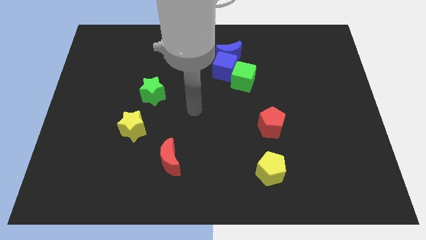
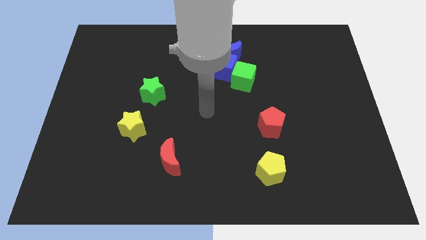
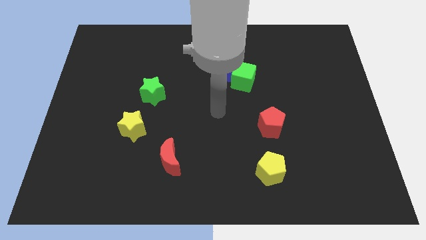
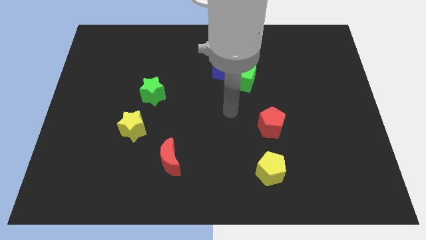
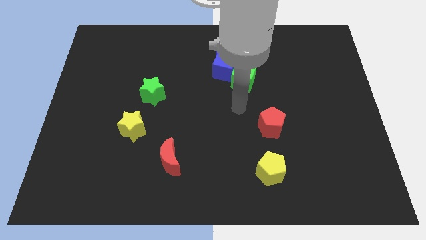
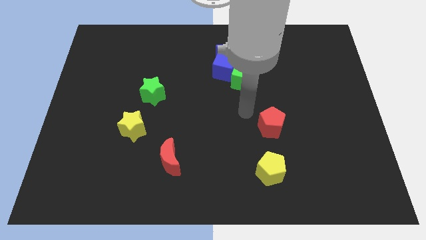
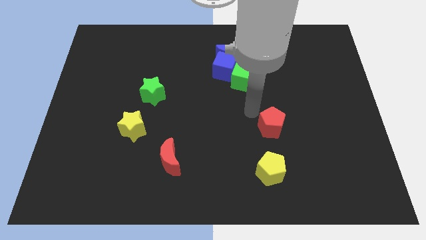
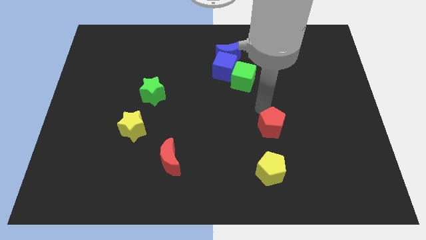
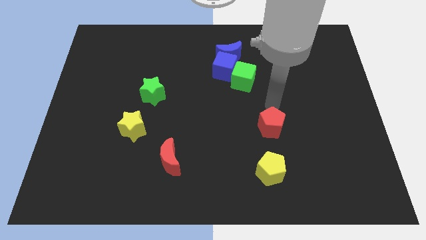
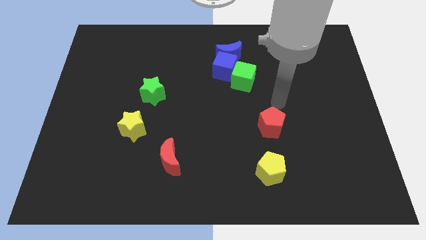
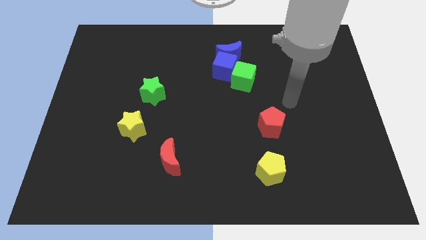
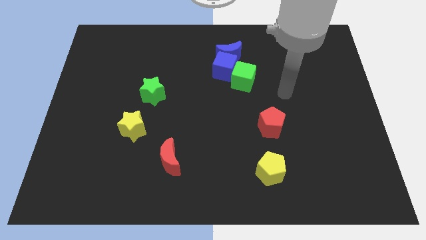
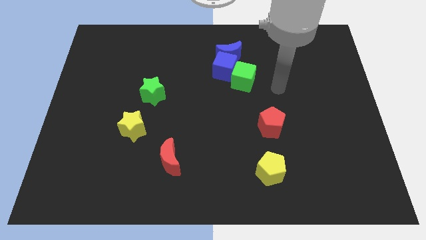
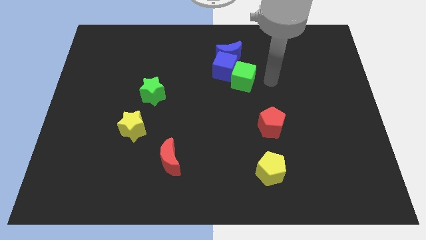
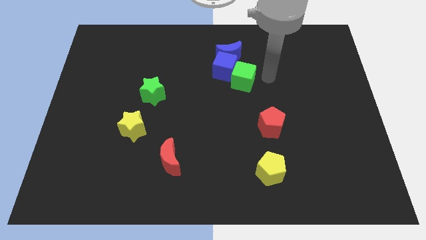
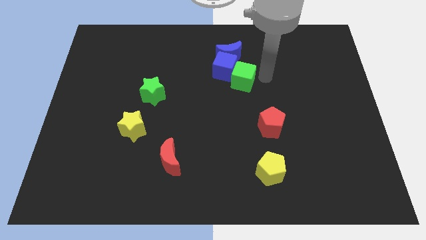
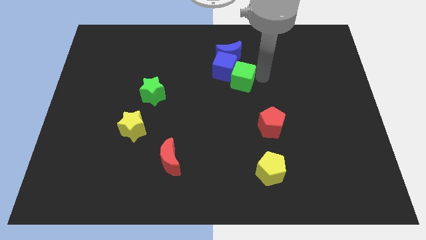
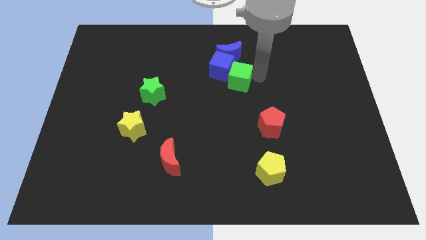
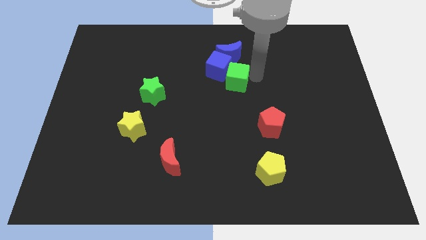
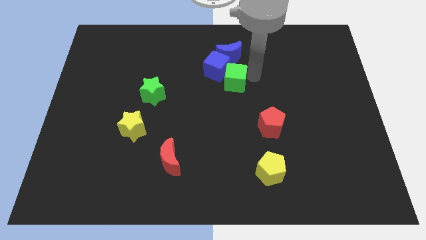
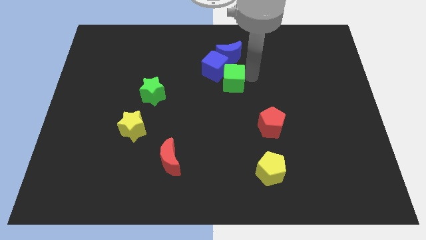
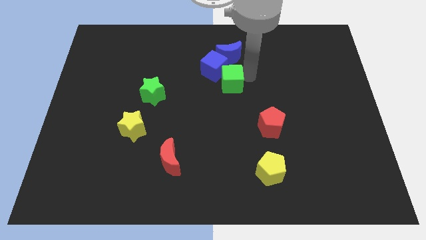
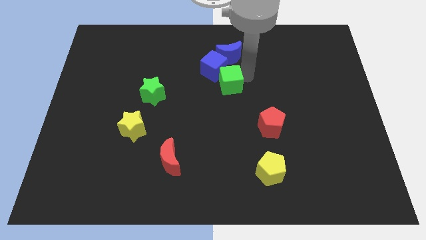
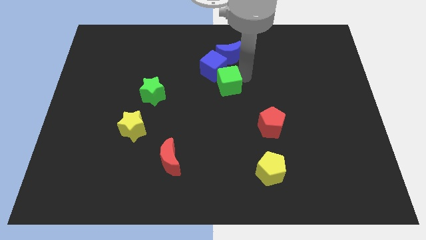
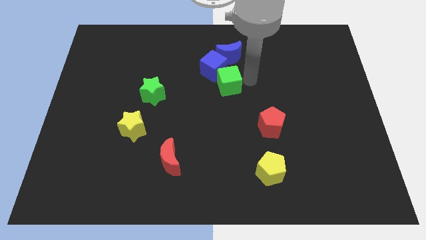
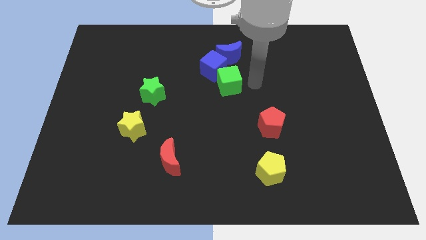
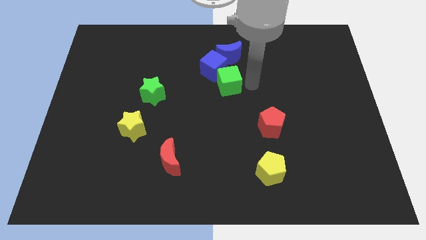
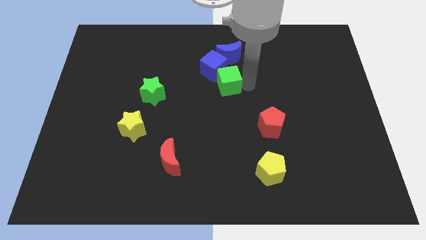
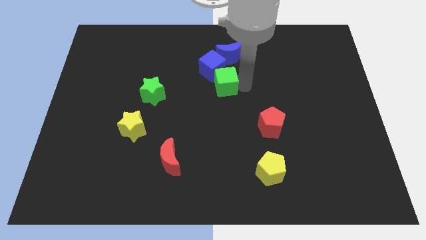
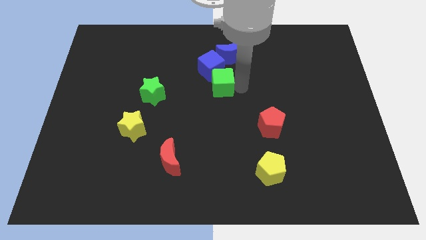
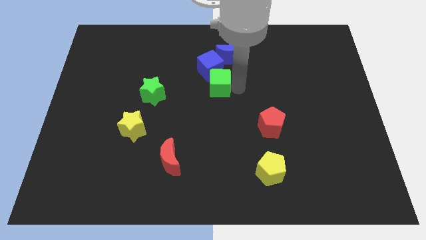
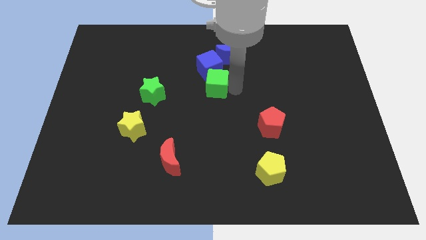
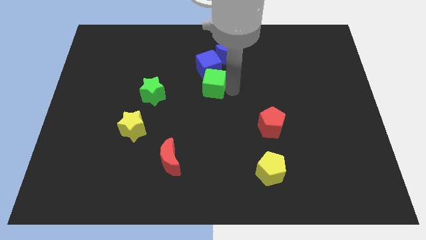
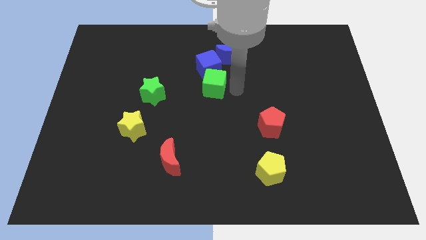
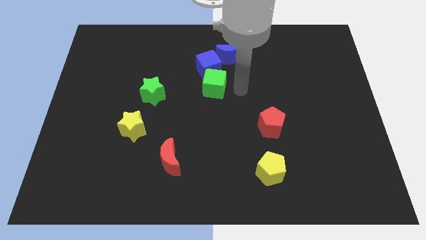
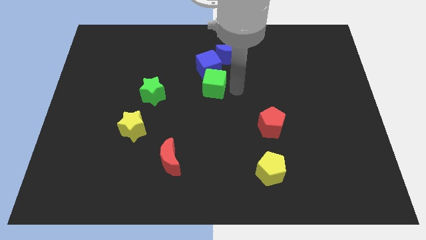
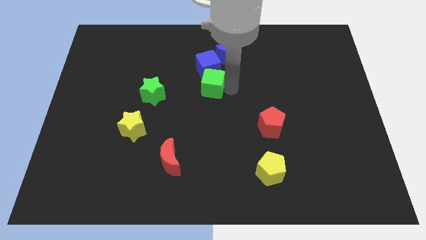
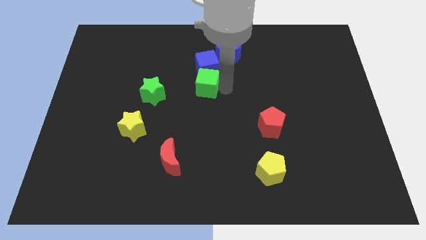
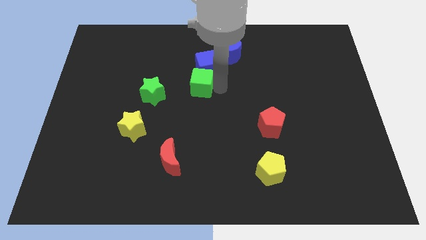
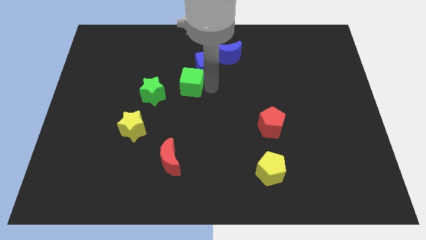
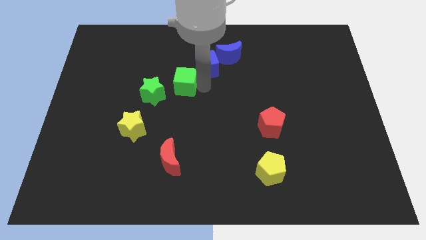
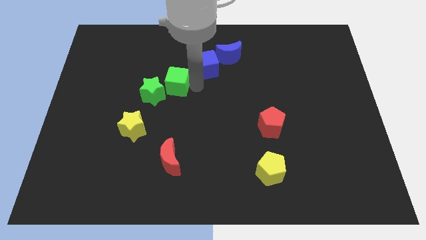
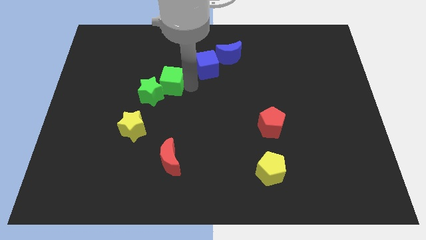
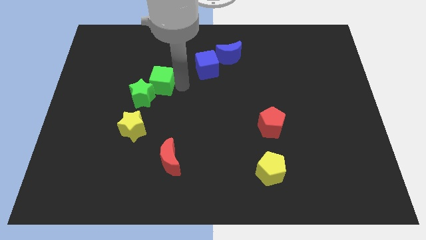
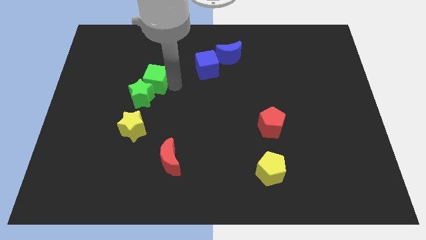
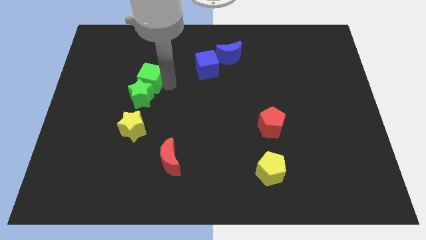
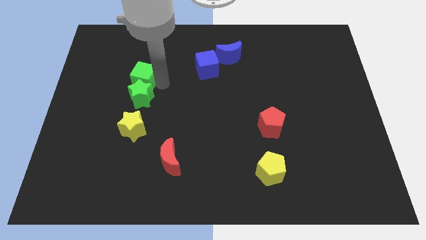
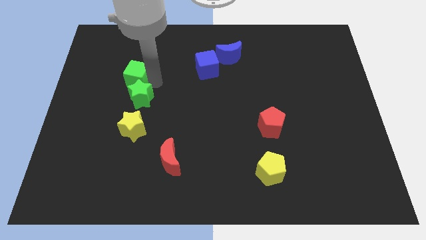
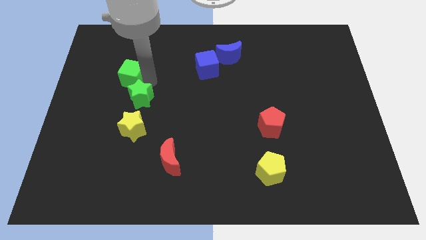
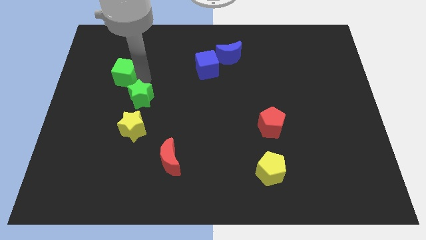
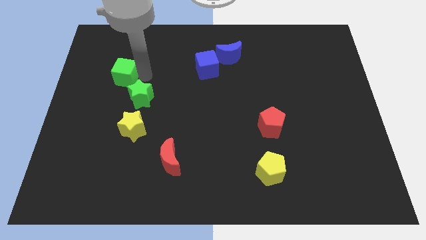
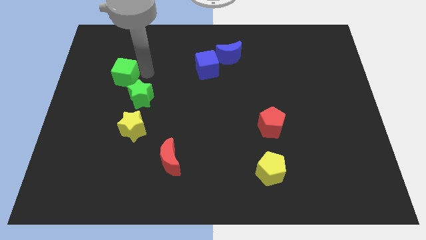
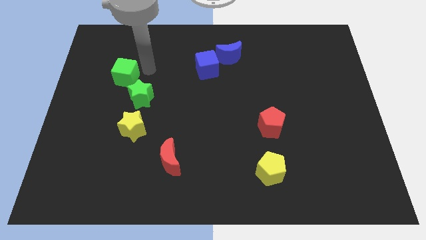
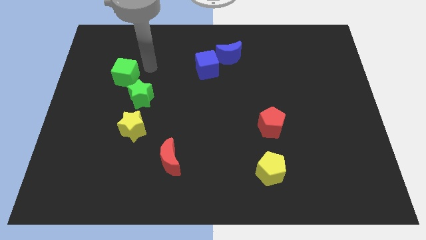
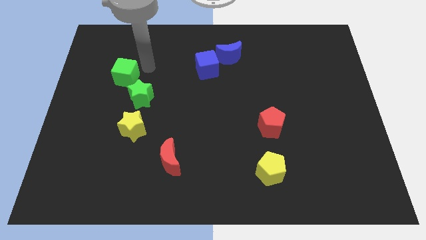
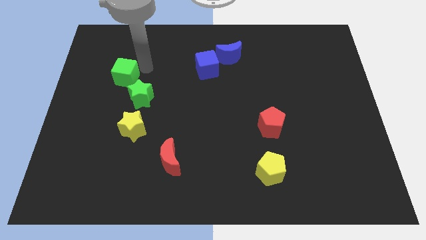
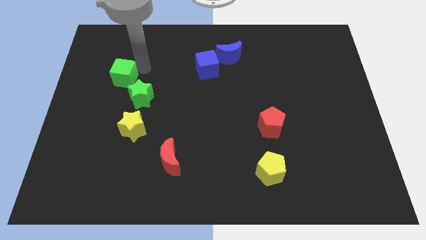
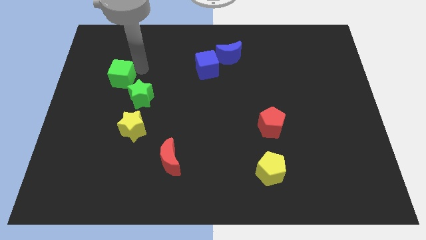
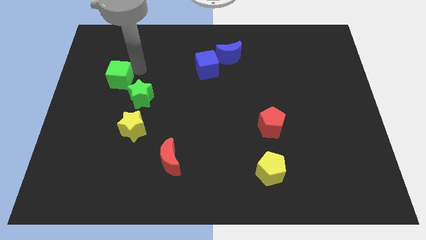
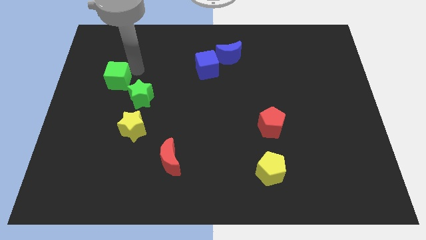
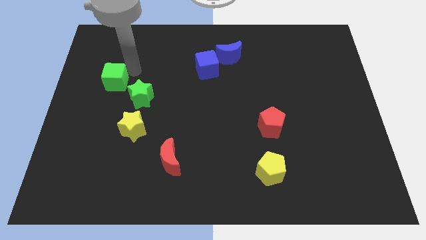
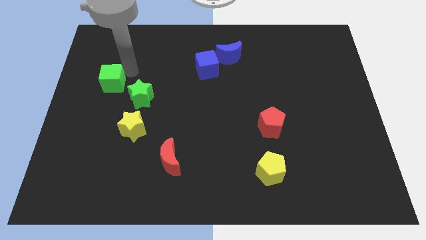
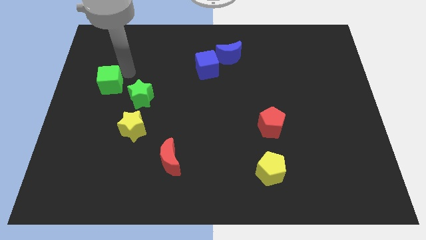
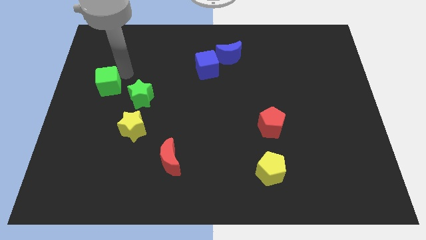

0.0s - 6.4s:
put the green cube to the center left

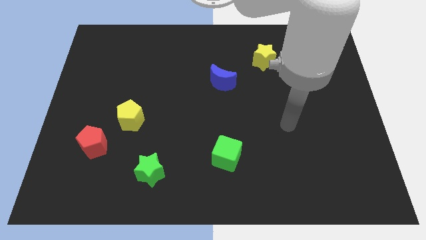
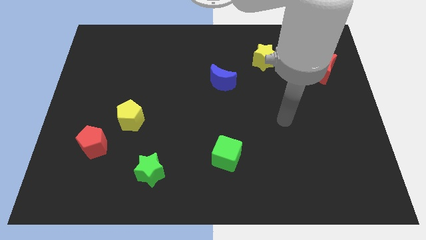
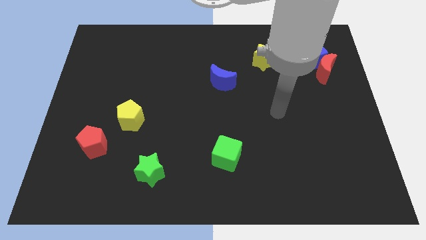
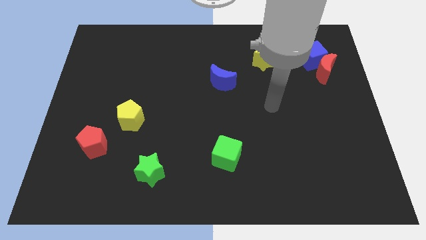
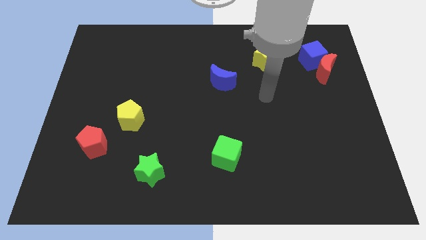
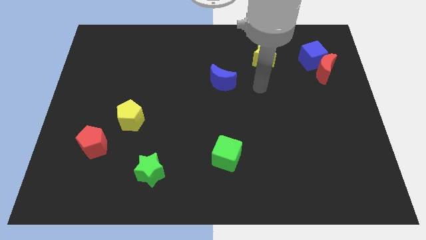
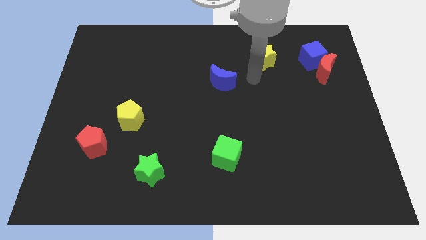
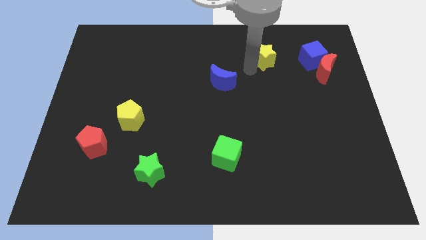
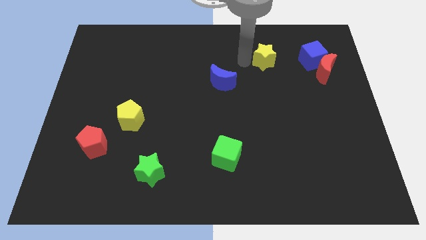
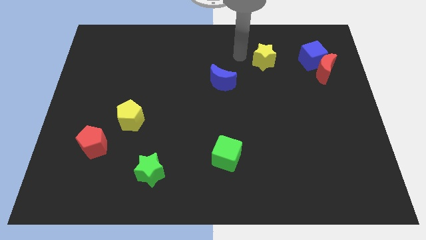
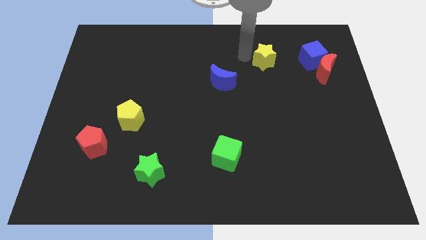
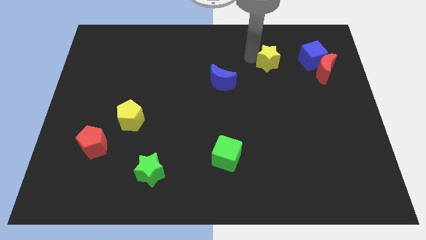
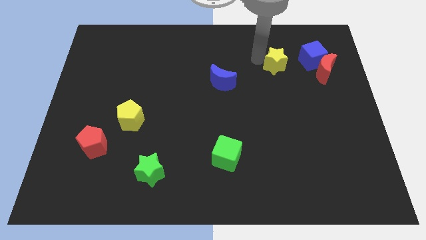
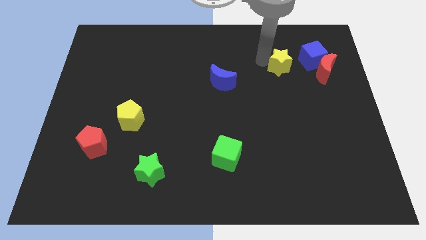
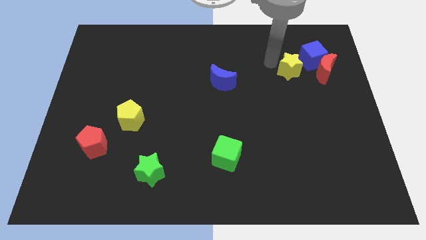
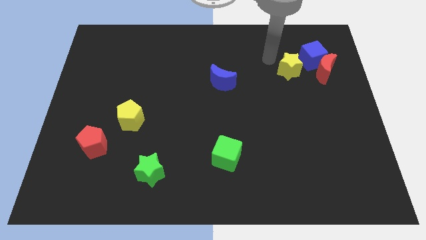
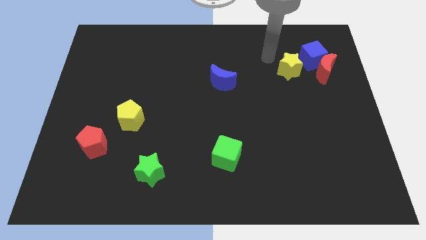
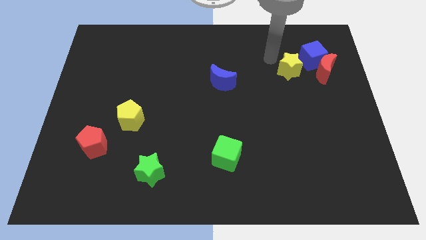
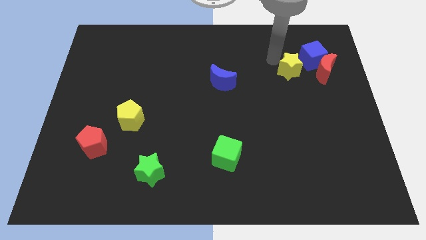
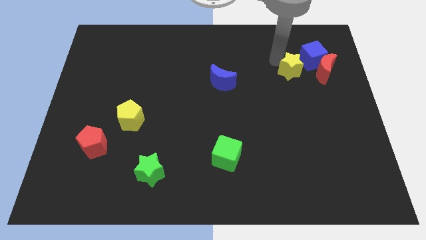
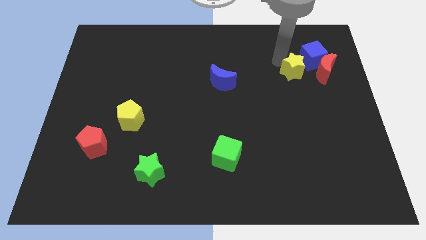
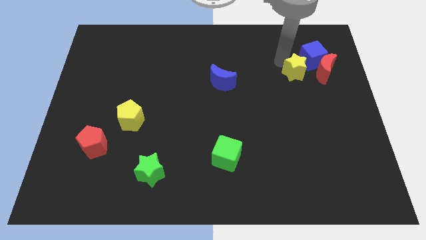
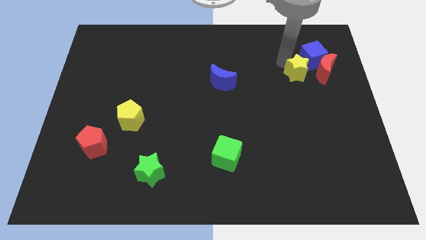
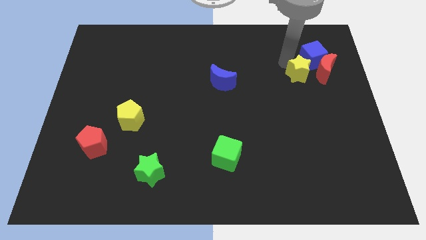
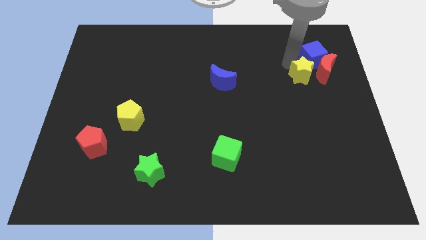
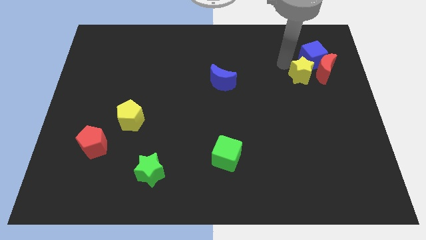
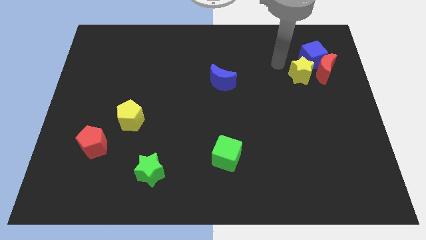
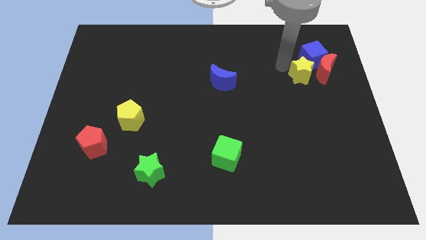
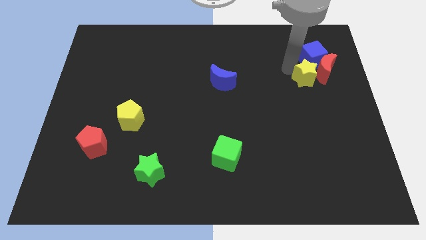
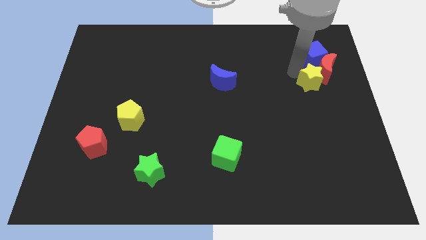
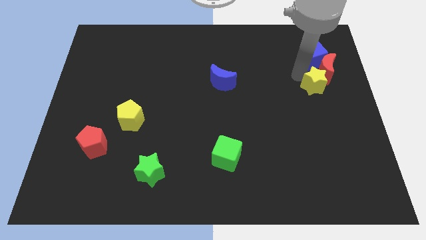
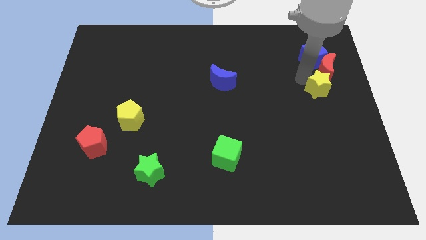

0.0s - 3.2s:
push the yellow star to the right side
